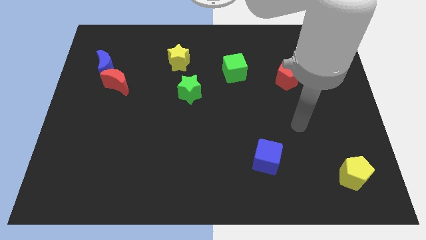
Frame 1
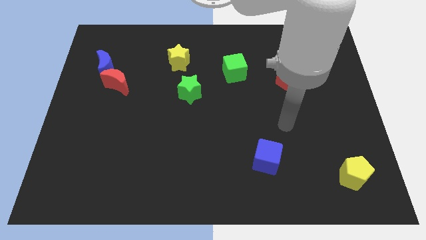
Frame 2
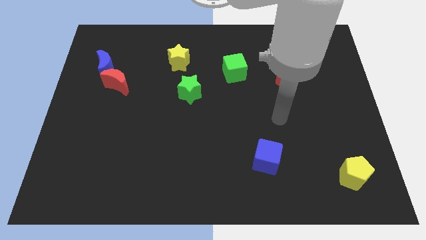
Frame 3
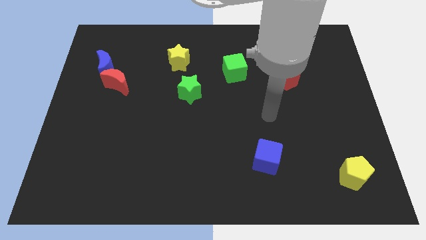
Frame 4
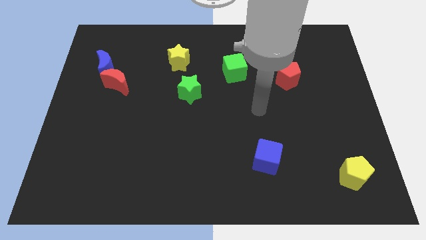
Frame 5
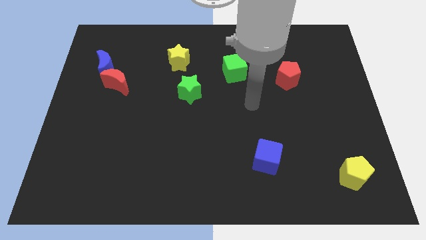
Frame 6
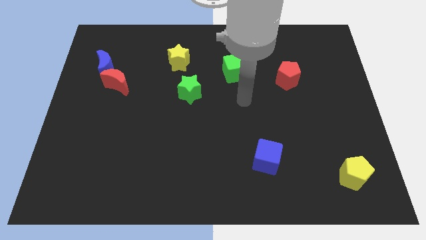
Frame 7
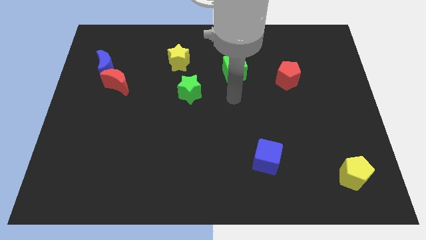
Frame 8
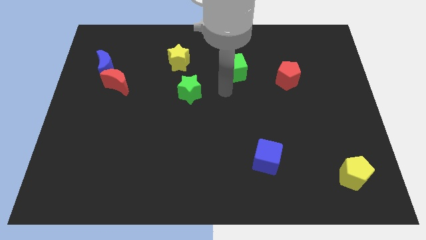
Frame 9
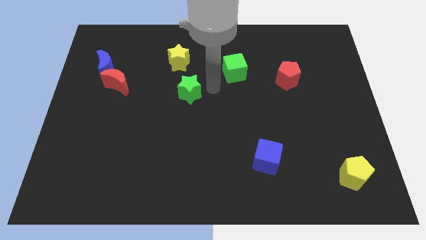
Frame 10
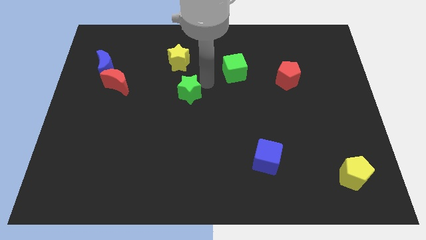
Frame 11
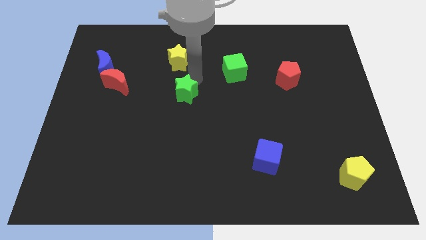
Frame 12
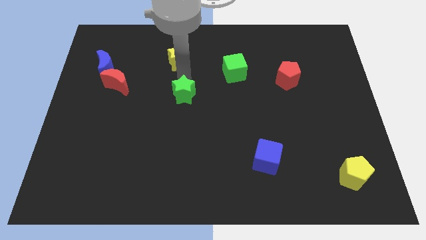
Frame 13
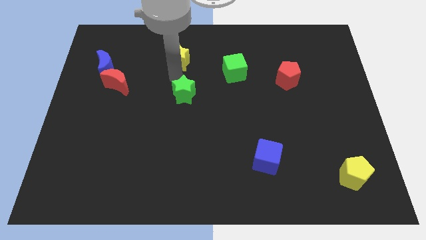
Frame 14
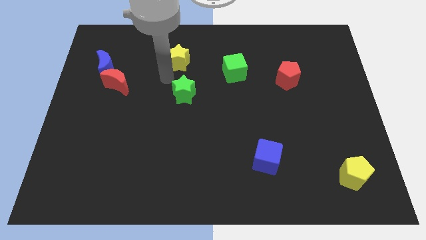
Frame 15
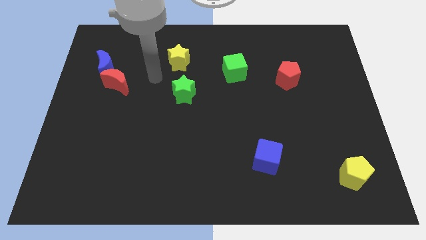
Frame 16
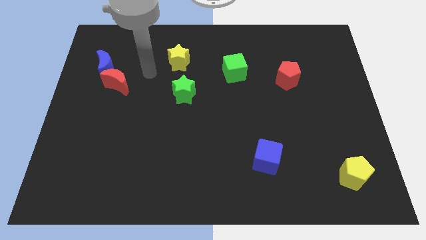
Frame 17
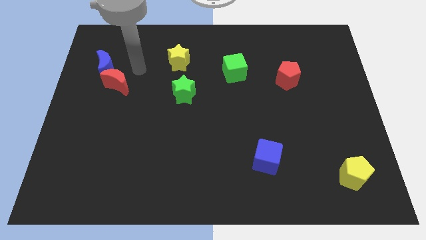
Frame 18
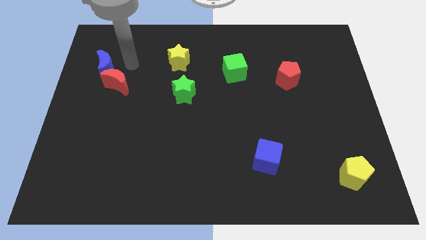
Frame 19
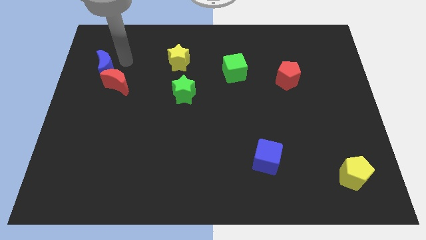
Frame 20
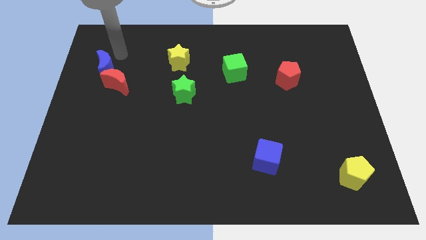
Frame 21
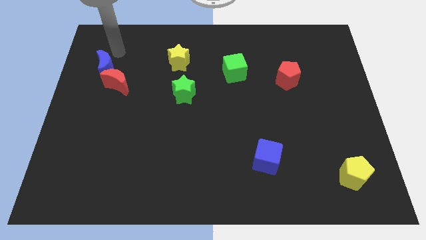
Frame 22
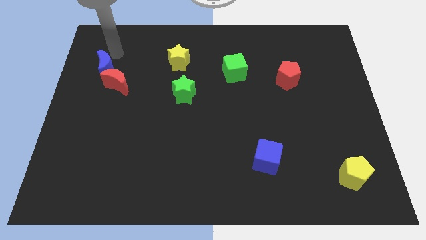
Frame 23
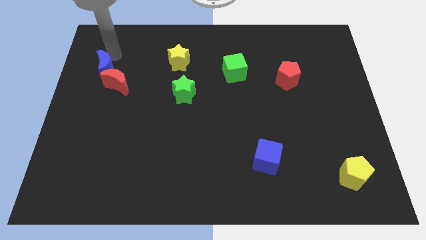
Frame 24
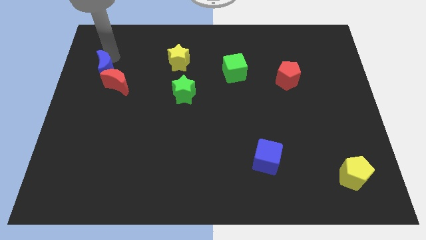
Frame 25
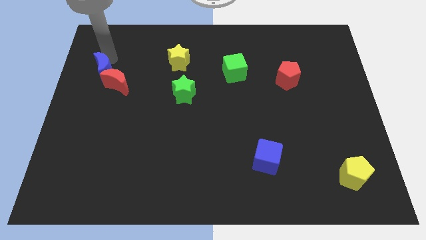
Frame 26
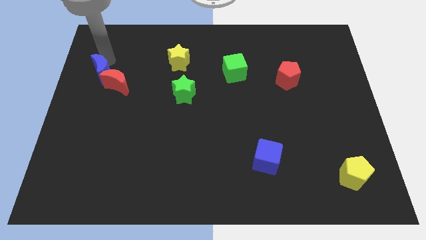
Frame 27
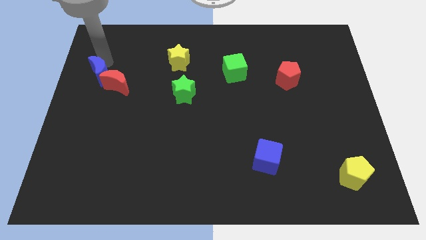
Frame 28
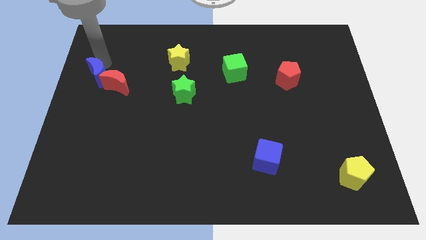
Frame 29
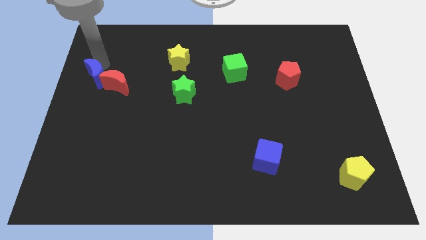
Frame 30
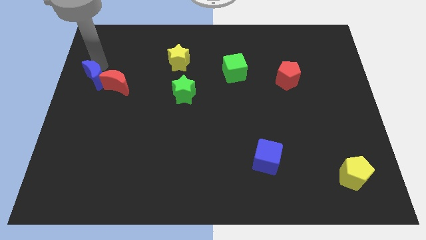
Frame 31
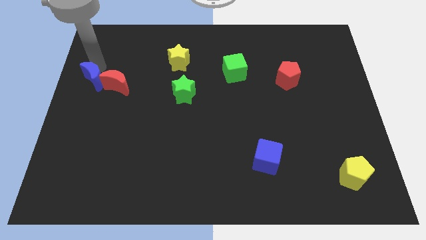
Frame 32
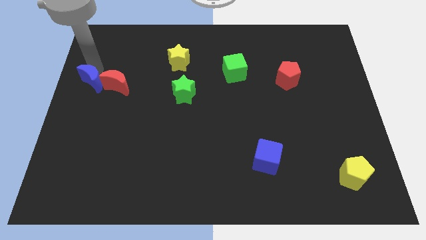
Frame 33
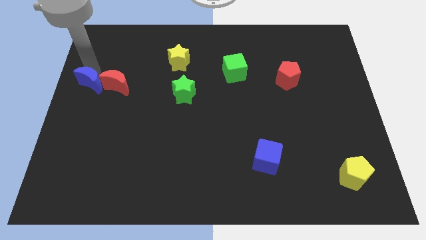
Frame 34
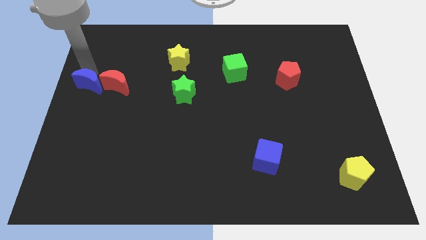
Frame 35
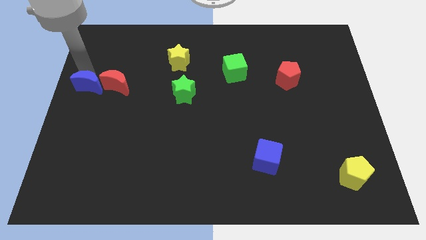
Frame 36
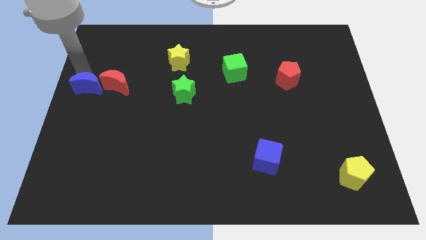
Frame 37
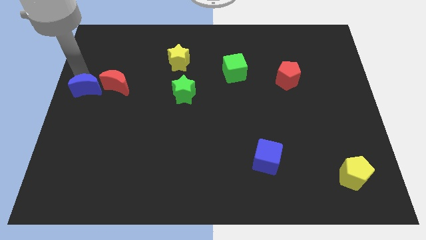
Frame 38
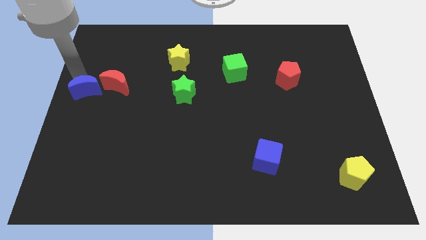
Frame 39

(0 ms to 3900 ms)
move the blue moon slightly down

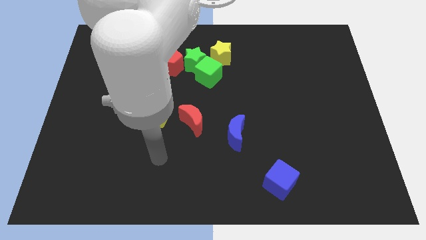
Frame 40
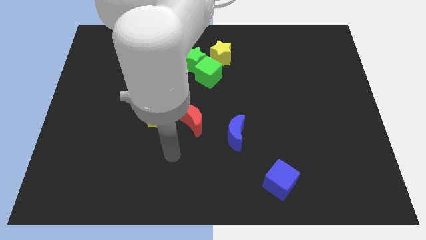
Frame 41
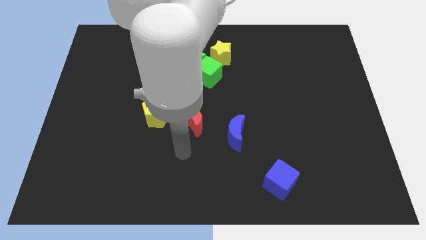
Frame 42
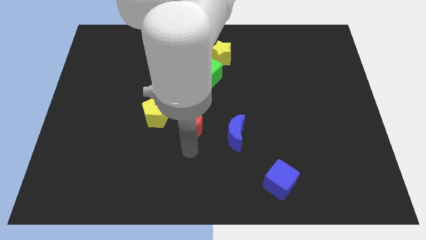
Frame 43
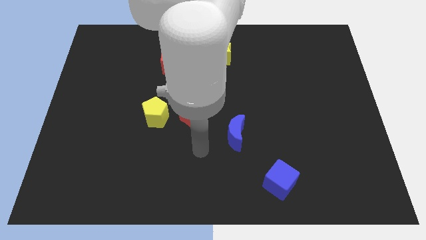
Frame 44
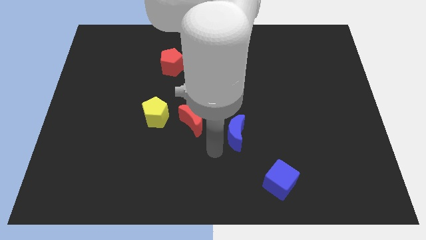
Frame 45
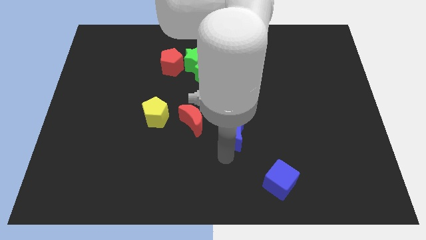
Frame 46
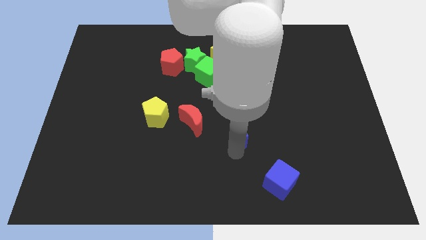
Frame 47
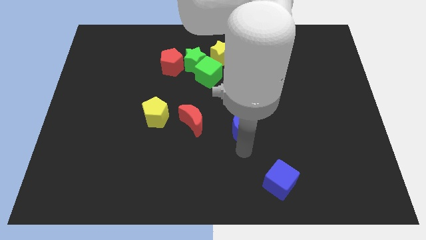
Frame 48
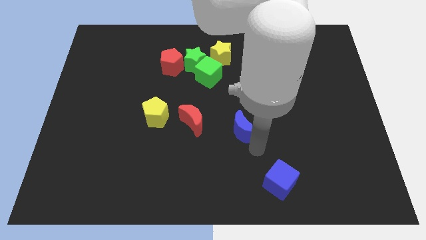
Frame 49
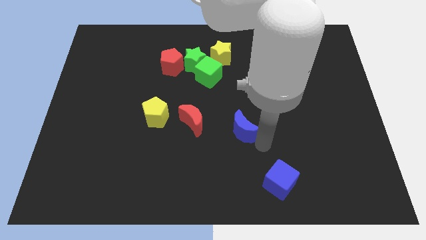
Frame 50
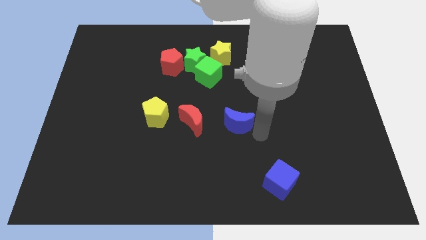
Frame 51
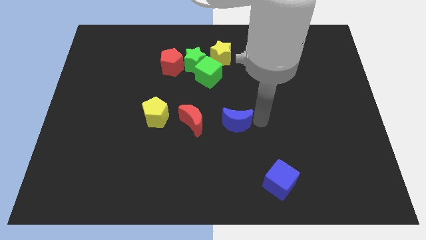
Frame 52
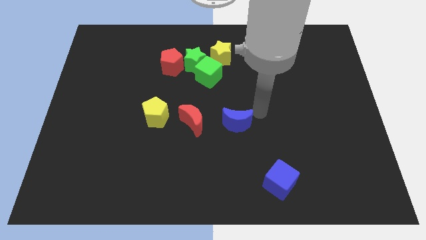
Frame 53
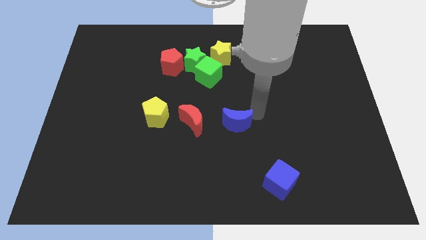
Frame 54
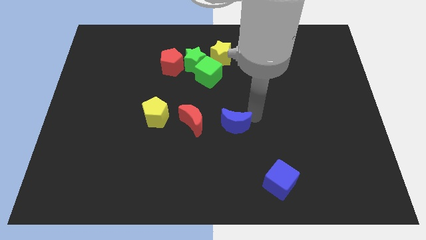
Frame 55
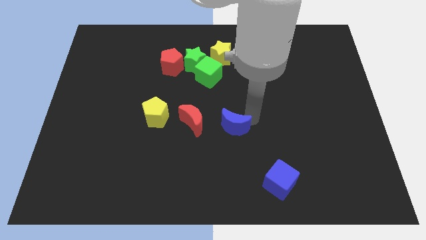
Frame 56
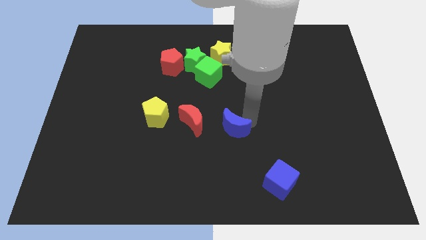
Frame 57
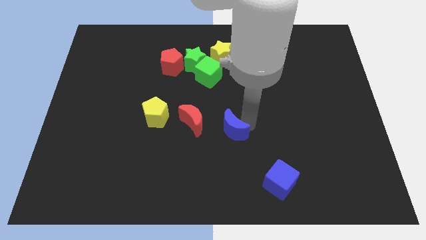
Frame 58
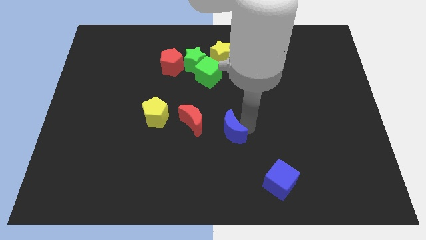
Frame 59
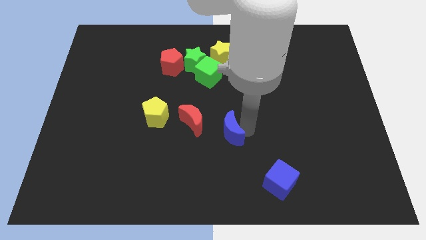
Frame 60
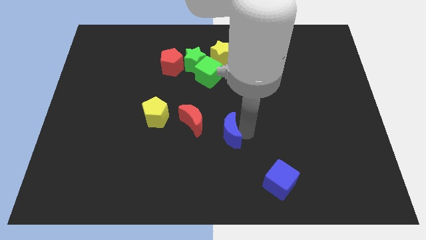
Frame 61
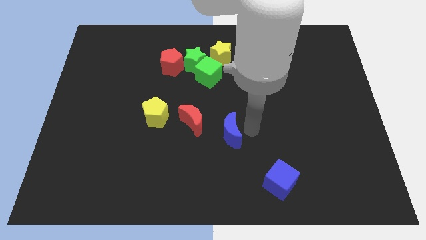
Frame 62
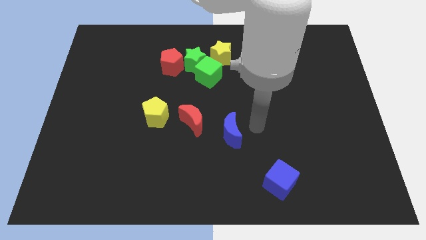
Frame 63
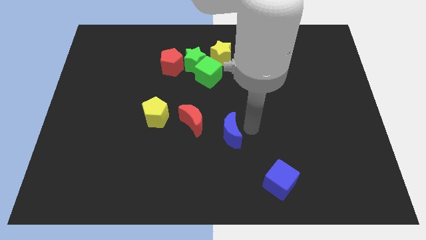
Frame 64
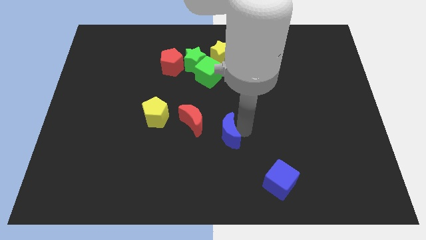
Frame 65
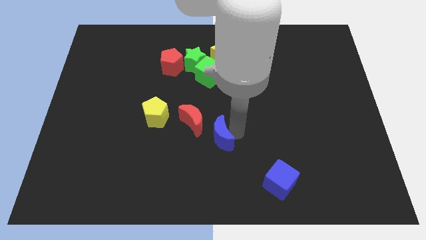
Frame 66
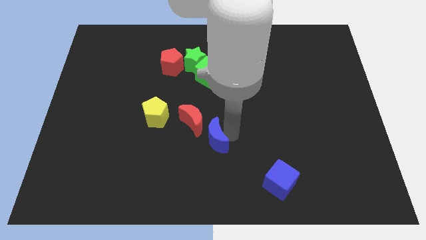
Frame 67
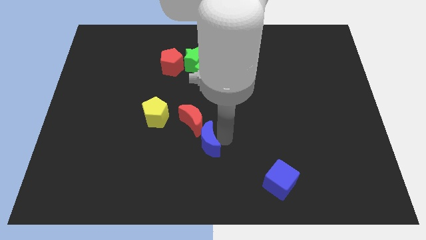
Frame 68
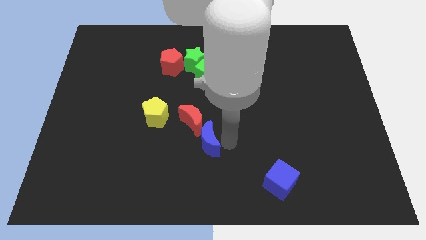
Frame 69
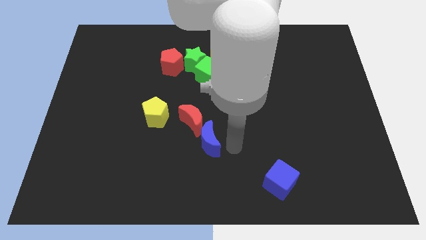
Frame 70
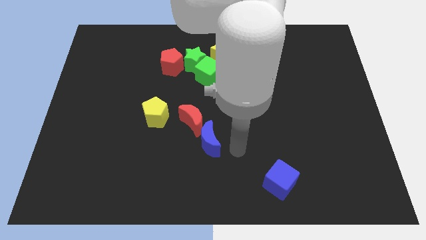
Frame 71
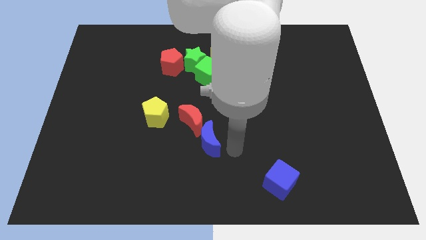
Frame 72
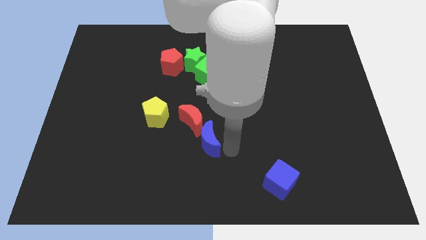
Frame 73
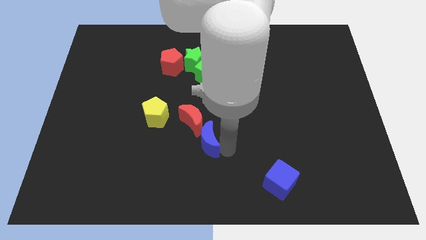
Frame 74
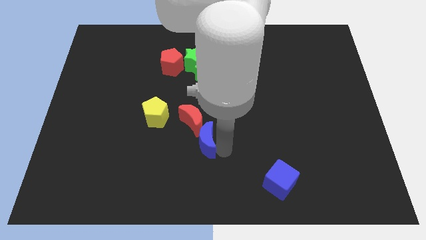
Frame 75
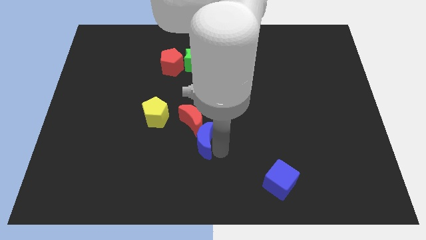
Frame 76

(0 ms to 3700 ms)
slightly push the blue moon left

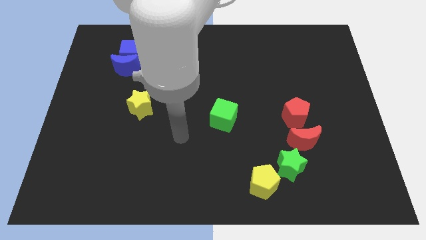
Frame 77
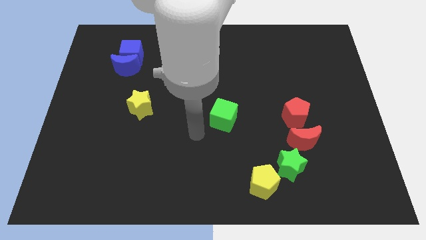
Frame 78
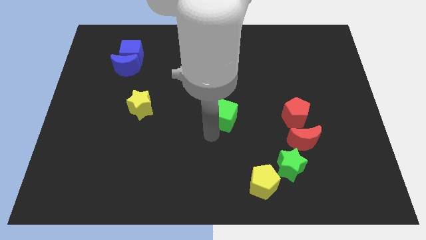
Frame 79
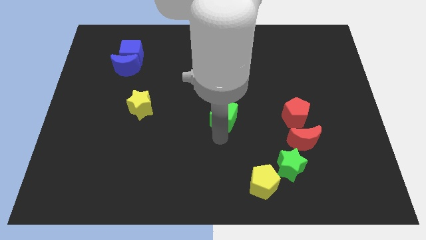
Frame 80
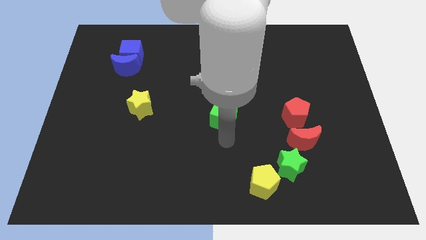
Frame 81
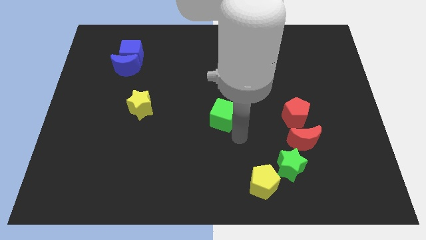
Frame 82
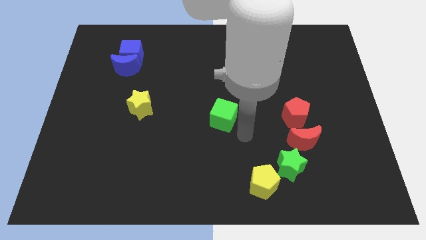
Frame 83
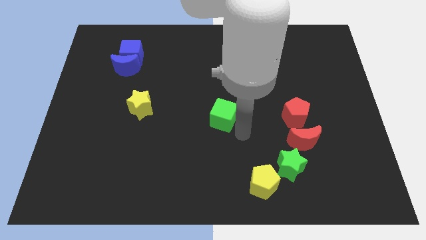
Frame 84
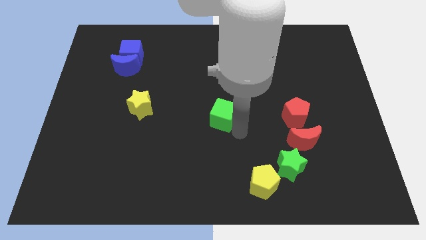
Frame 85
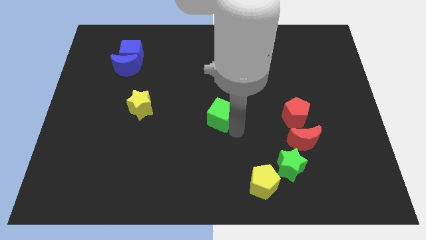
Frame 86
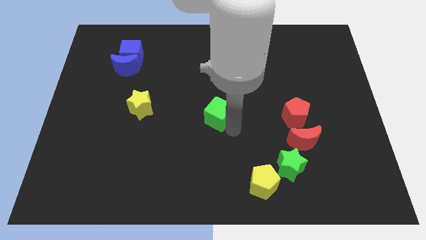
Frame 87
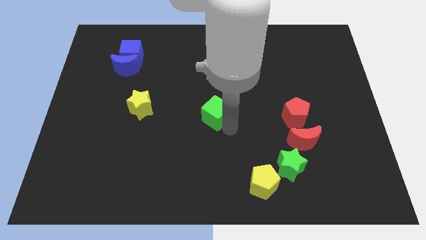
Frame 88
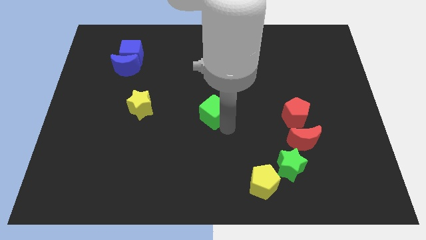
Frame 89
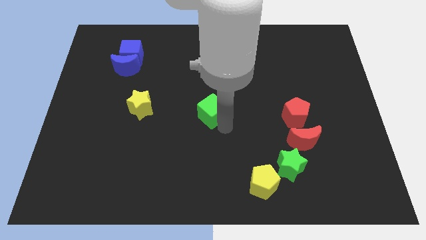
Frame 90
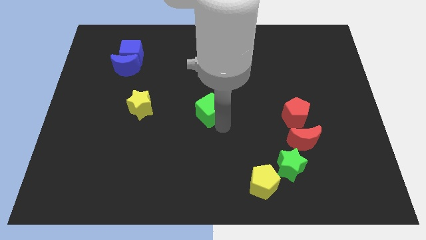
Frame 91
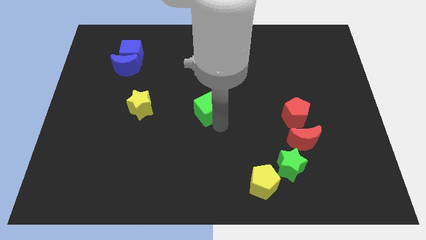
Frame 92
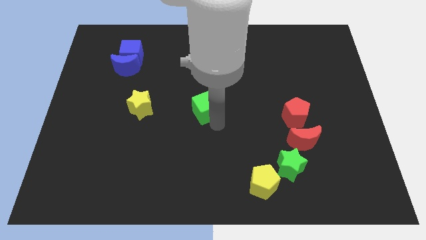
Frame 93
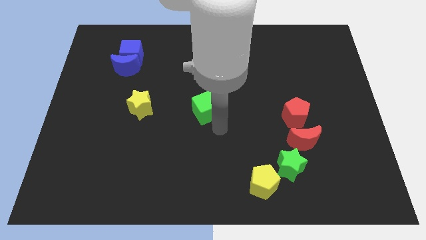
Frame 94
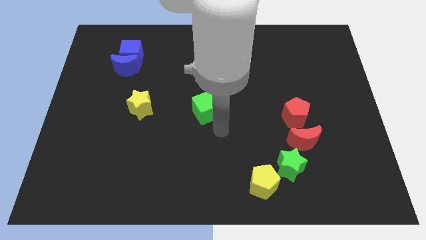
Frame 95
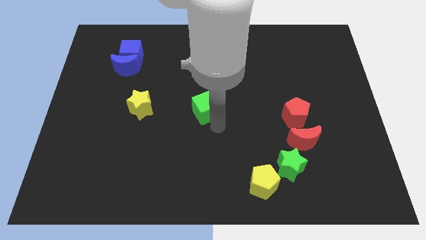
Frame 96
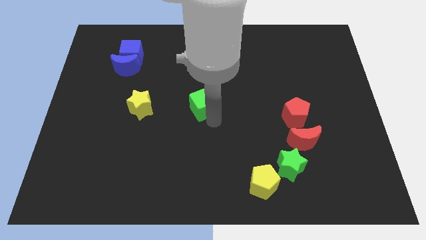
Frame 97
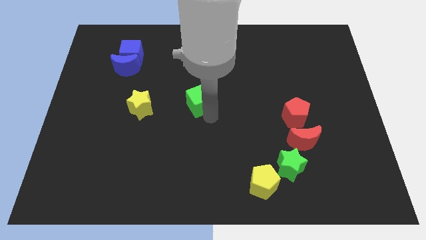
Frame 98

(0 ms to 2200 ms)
slightly slide the green cube upwards and to the left
